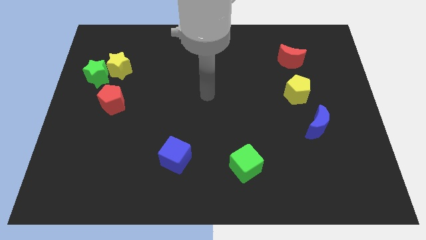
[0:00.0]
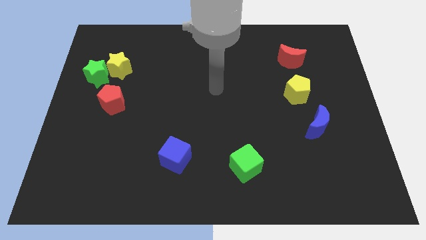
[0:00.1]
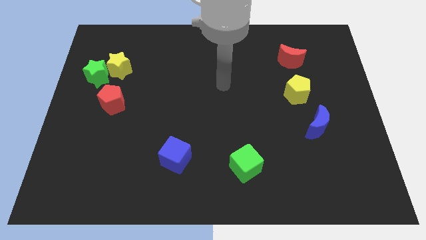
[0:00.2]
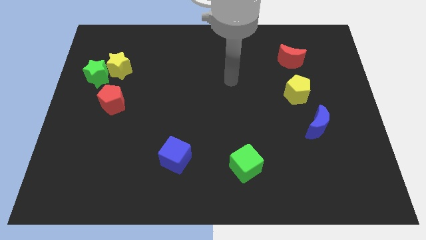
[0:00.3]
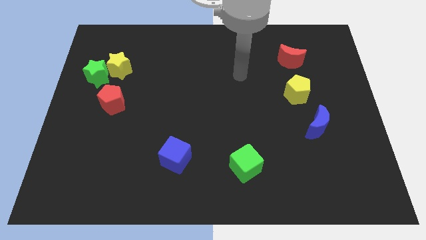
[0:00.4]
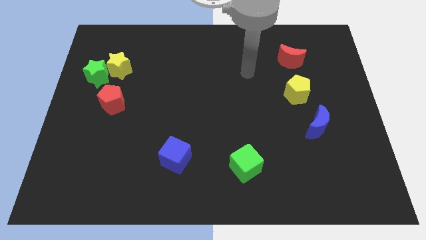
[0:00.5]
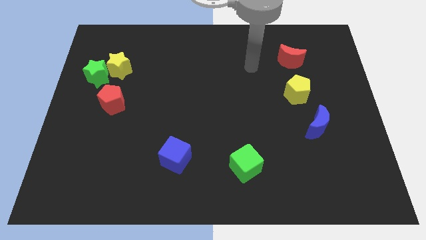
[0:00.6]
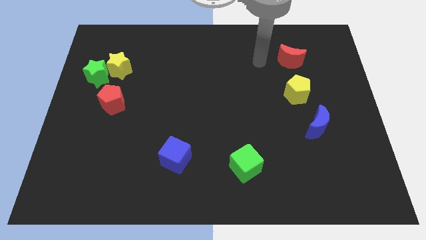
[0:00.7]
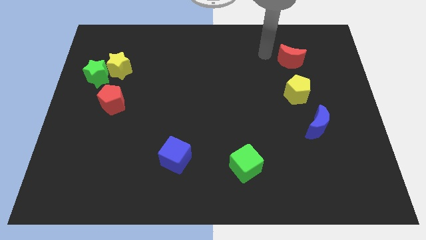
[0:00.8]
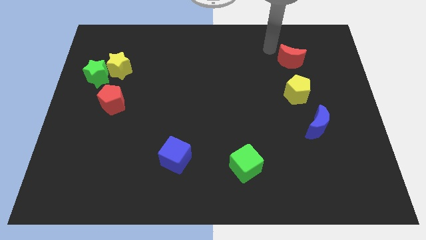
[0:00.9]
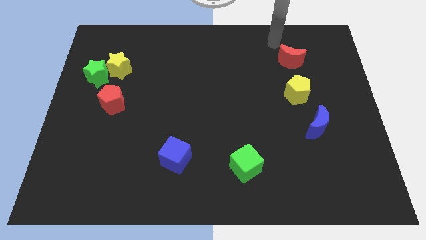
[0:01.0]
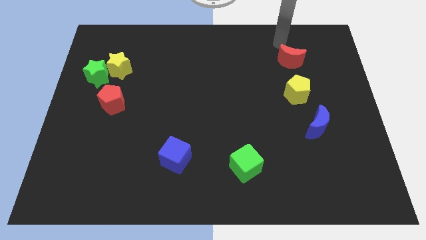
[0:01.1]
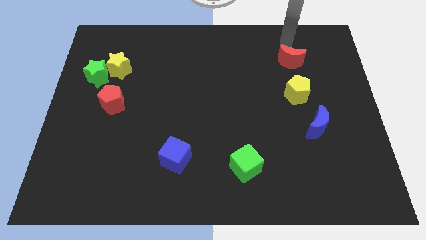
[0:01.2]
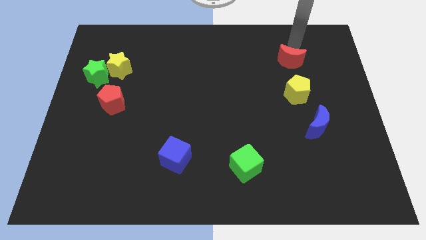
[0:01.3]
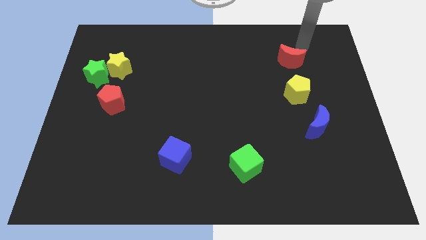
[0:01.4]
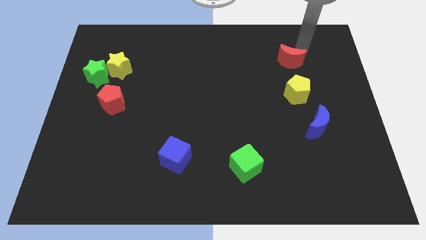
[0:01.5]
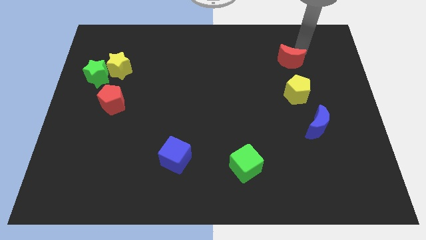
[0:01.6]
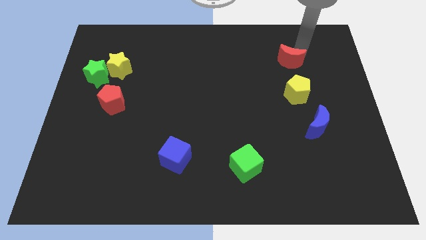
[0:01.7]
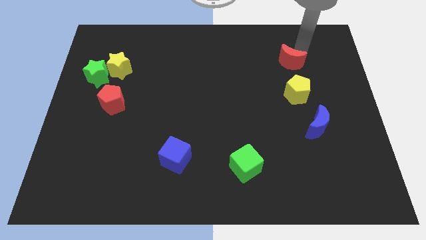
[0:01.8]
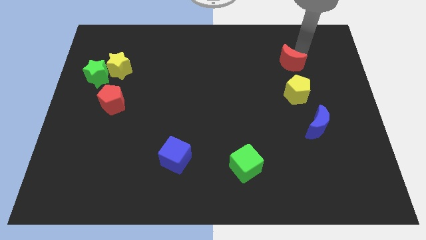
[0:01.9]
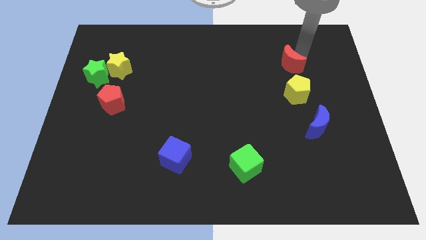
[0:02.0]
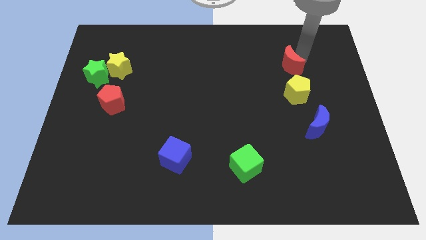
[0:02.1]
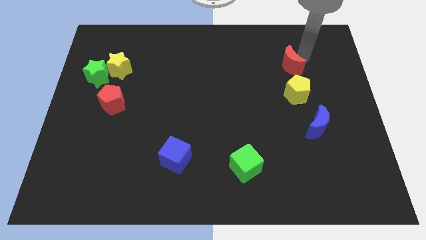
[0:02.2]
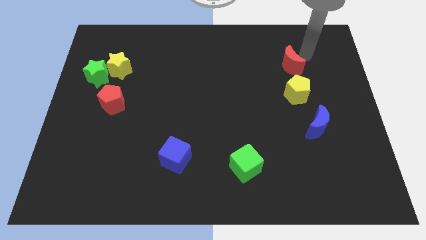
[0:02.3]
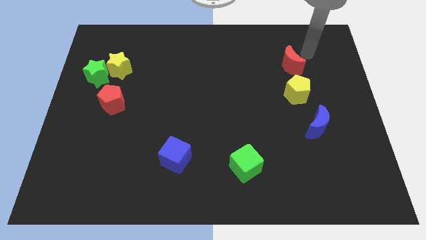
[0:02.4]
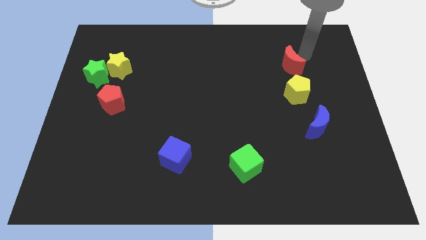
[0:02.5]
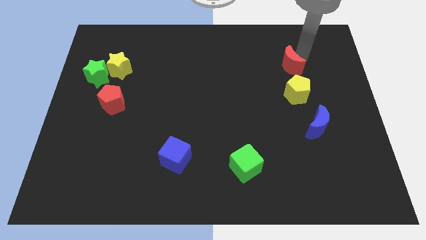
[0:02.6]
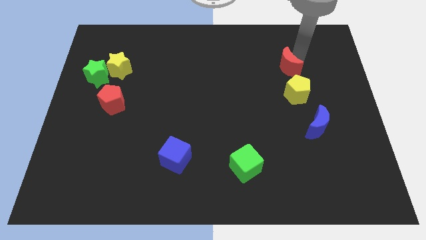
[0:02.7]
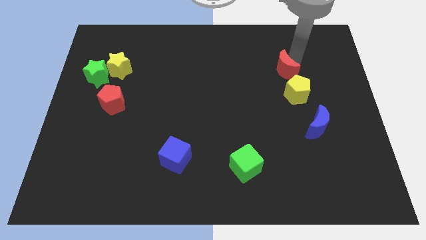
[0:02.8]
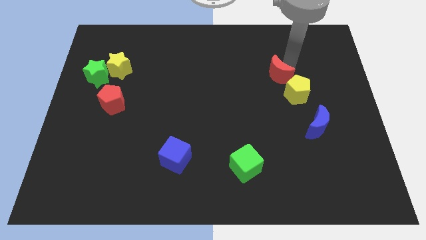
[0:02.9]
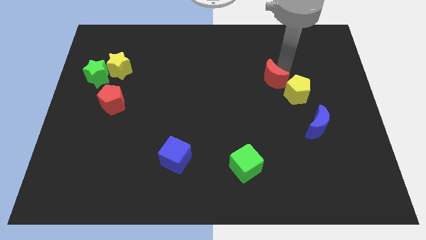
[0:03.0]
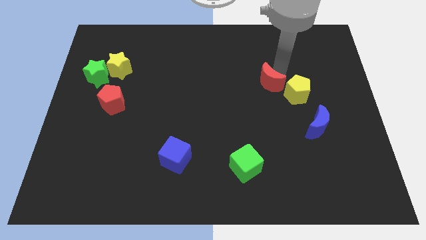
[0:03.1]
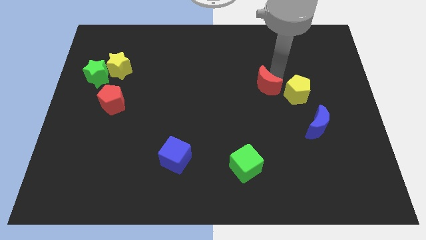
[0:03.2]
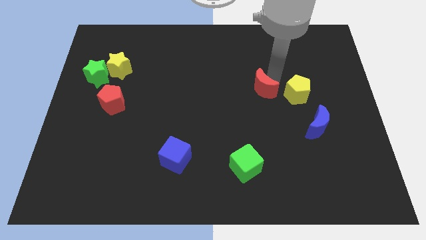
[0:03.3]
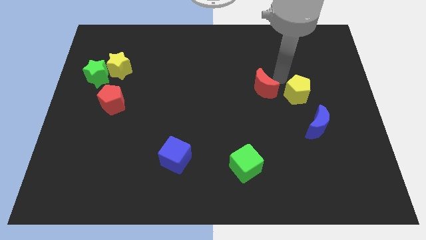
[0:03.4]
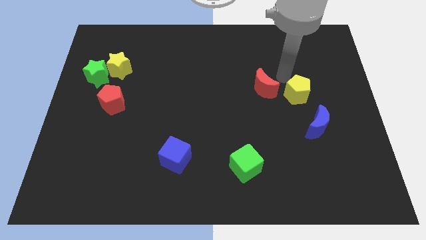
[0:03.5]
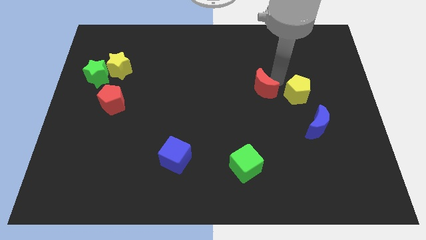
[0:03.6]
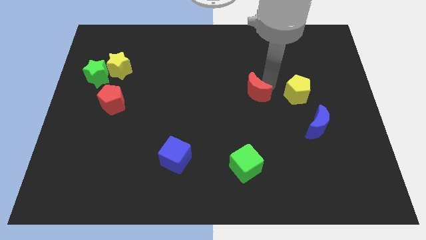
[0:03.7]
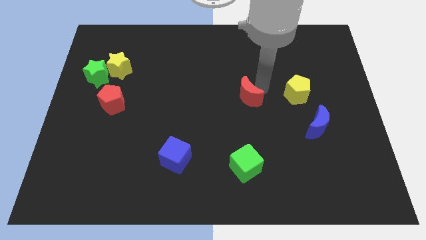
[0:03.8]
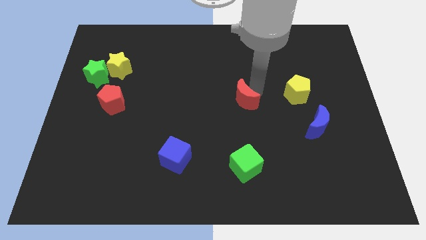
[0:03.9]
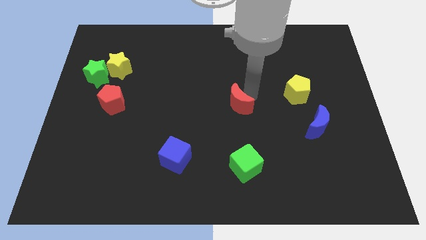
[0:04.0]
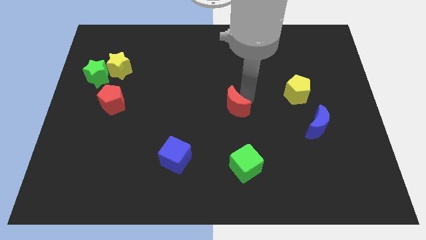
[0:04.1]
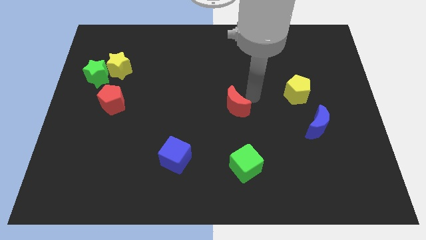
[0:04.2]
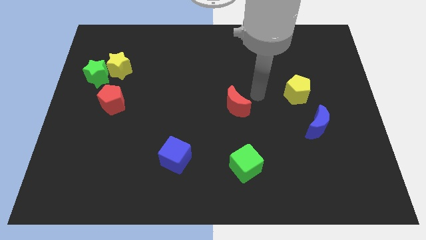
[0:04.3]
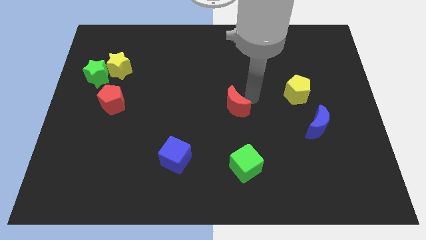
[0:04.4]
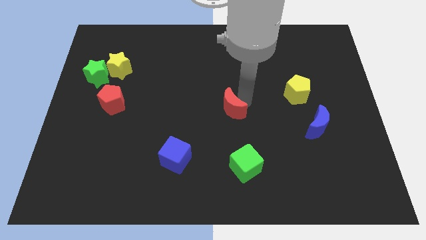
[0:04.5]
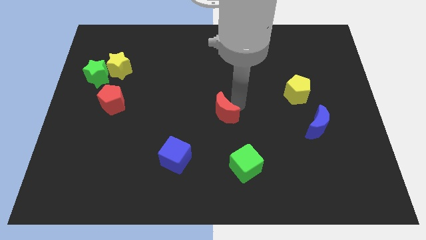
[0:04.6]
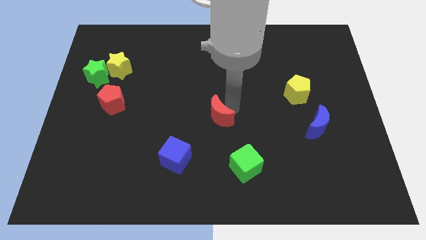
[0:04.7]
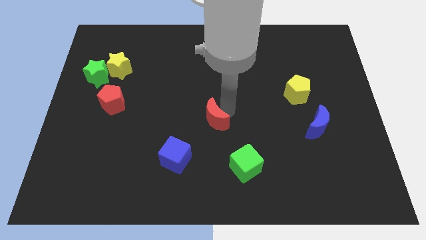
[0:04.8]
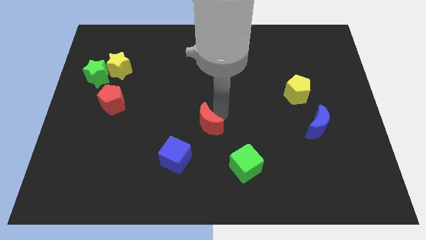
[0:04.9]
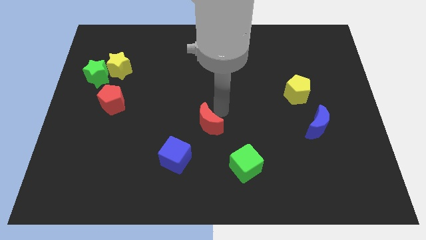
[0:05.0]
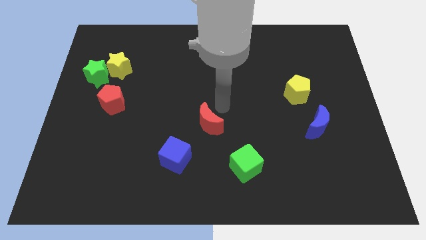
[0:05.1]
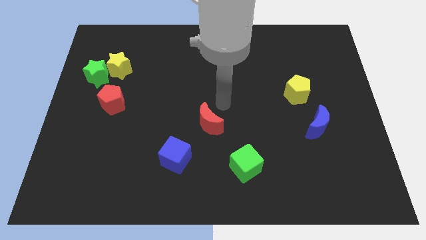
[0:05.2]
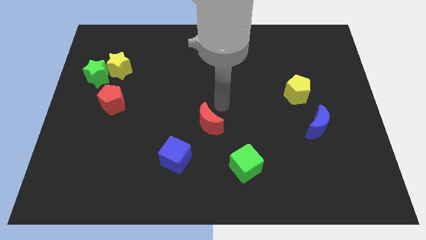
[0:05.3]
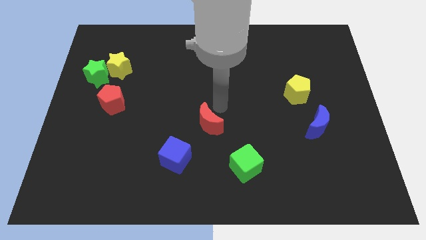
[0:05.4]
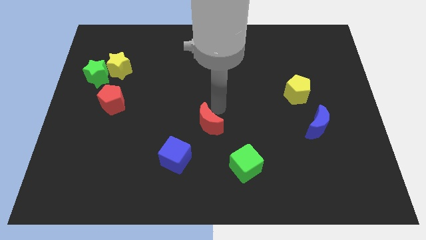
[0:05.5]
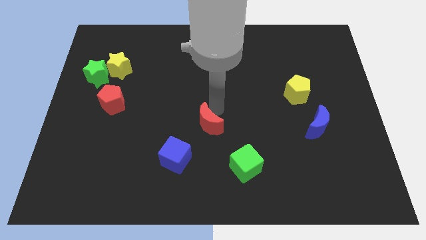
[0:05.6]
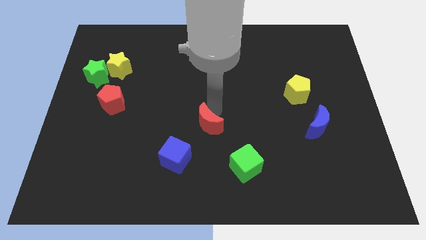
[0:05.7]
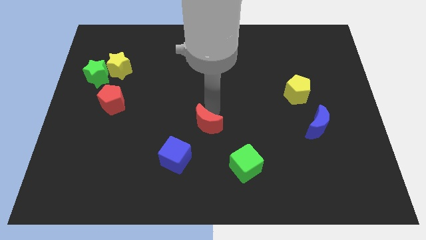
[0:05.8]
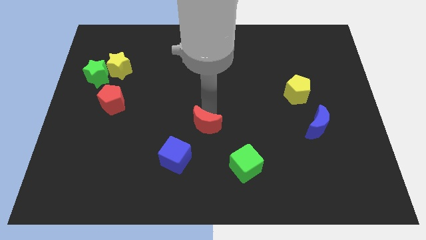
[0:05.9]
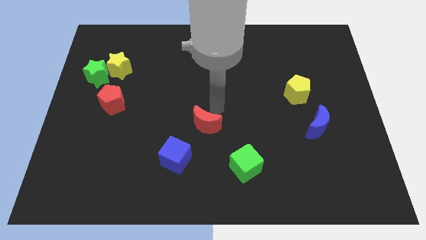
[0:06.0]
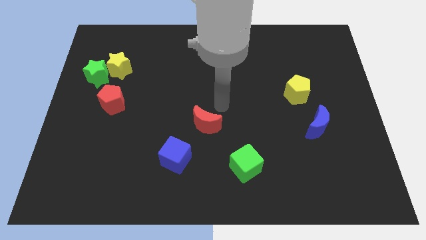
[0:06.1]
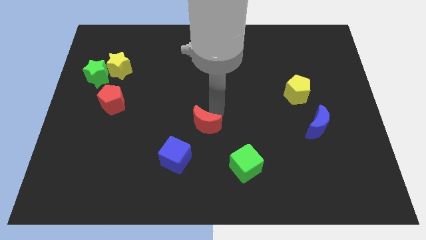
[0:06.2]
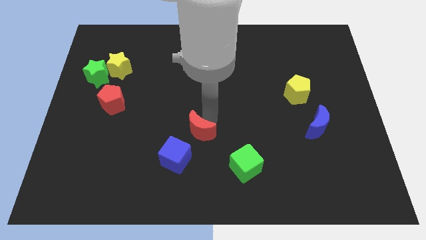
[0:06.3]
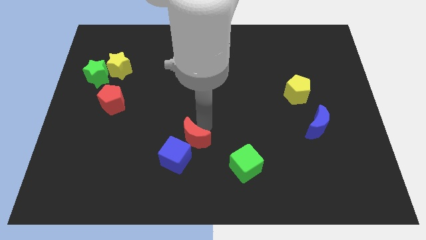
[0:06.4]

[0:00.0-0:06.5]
put the red moon to the blue cube

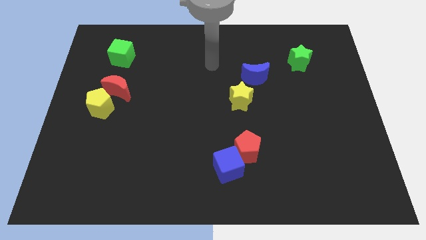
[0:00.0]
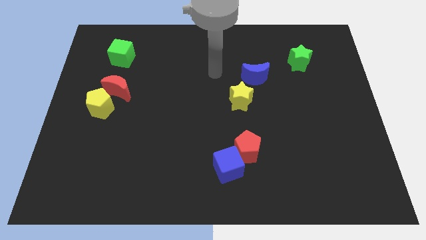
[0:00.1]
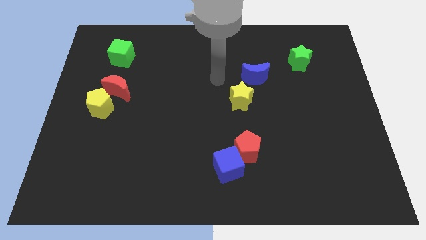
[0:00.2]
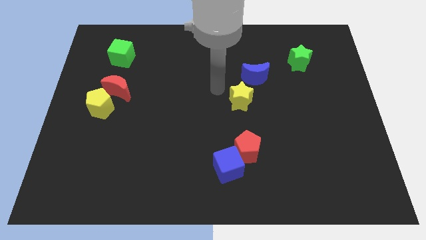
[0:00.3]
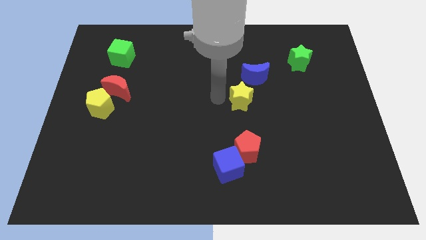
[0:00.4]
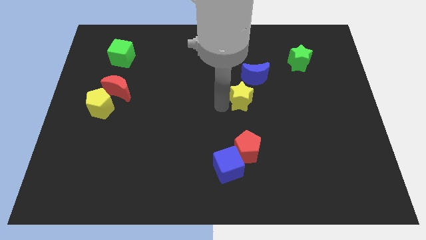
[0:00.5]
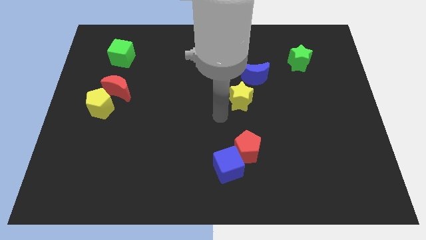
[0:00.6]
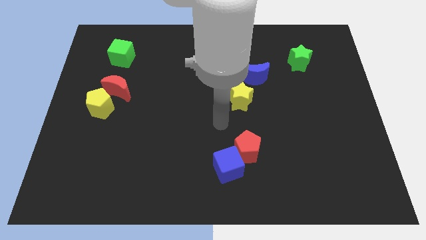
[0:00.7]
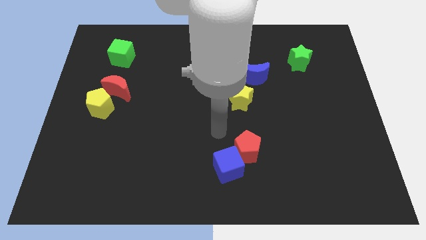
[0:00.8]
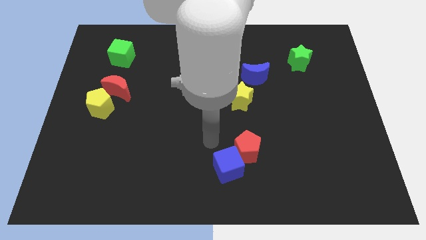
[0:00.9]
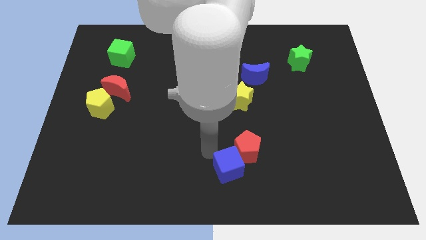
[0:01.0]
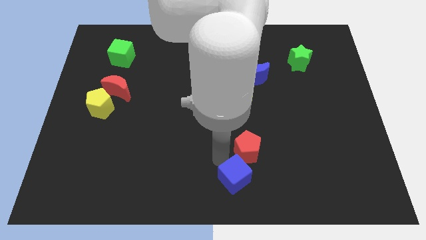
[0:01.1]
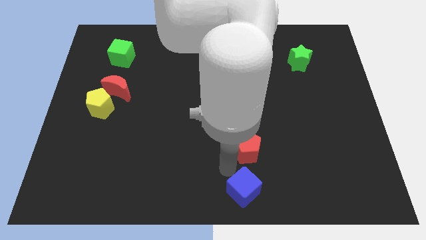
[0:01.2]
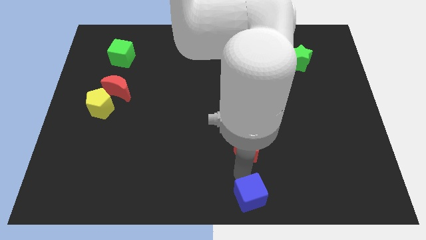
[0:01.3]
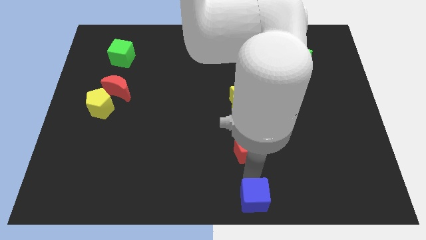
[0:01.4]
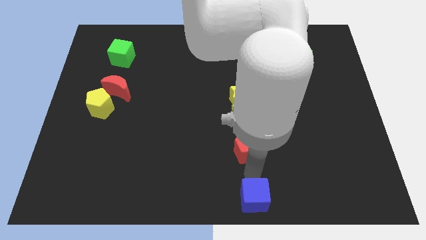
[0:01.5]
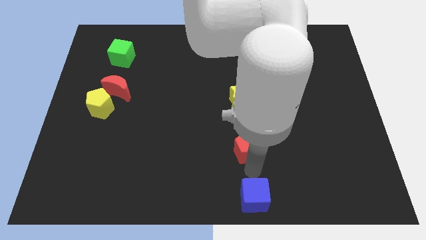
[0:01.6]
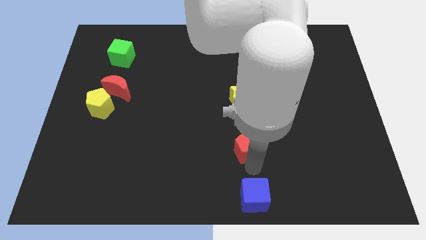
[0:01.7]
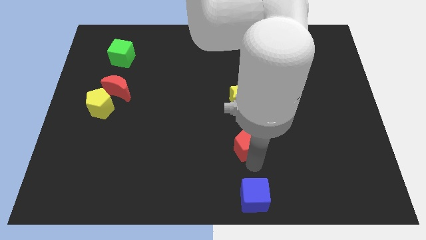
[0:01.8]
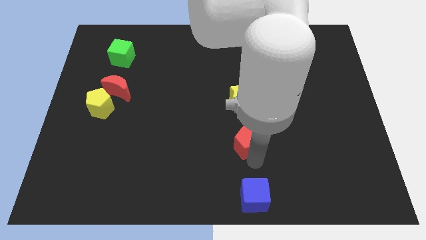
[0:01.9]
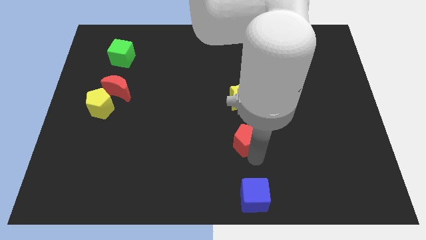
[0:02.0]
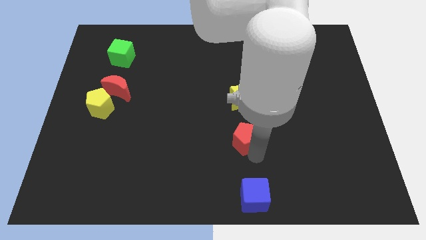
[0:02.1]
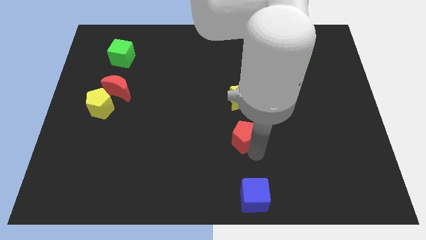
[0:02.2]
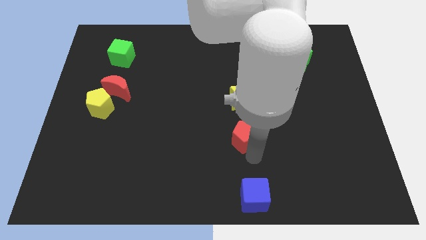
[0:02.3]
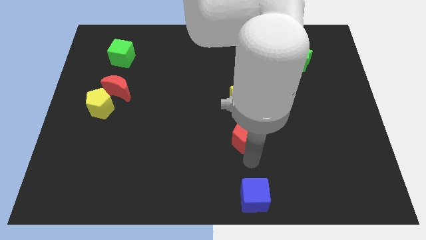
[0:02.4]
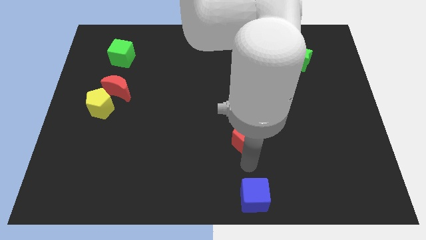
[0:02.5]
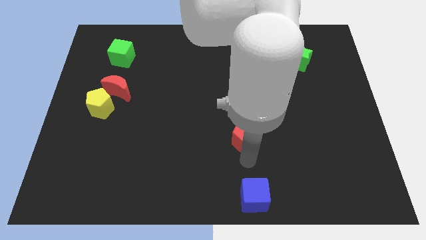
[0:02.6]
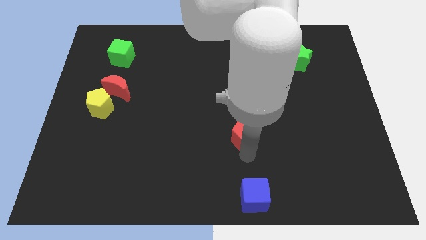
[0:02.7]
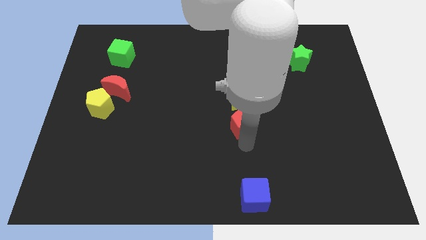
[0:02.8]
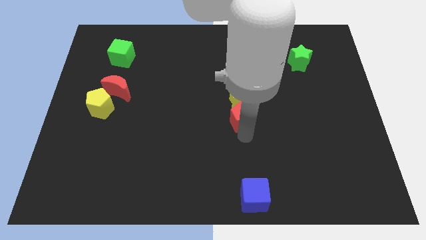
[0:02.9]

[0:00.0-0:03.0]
slide the red pentagon next to the yellow star
